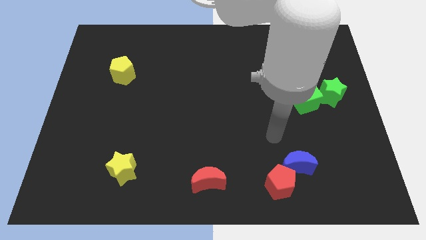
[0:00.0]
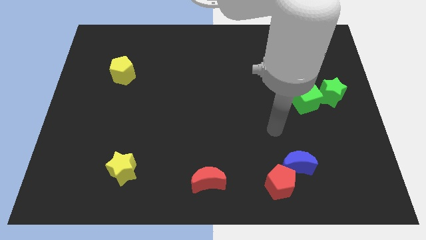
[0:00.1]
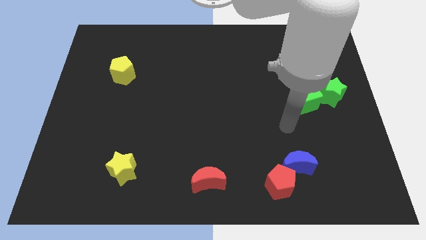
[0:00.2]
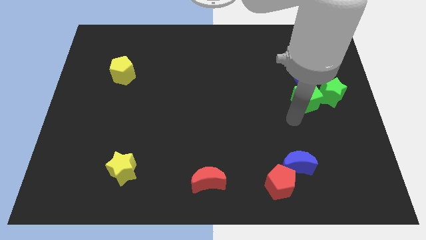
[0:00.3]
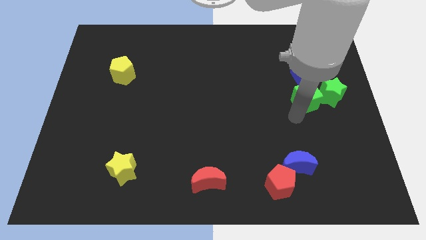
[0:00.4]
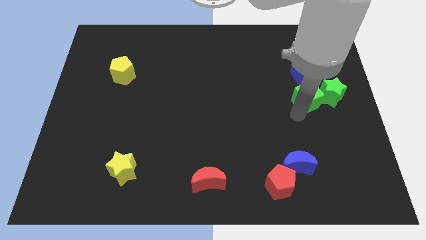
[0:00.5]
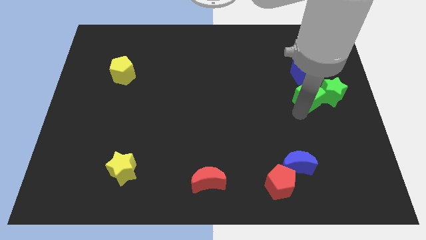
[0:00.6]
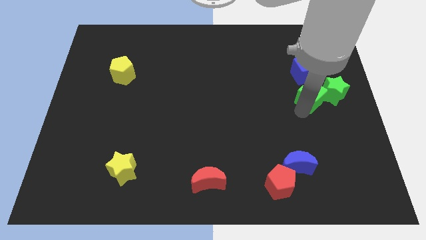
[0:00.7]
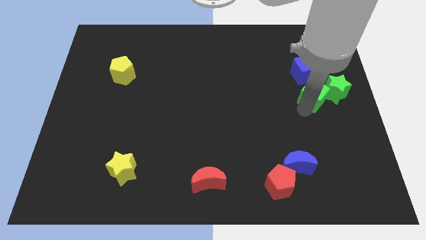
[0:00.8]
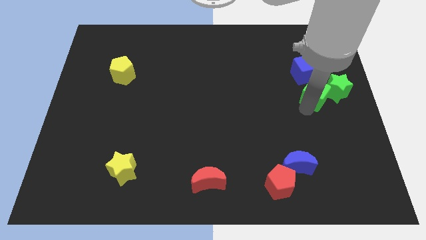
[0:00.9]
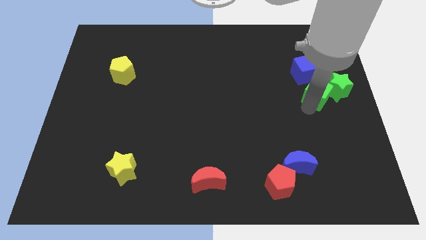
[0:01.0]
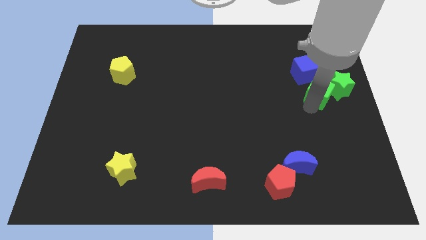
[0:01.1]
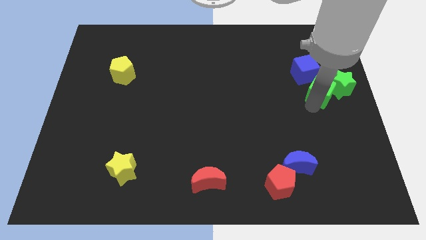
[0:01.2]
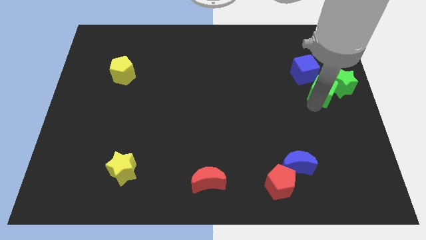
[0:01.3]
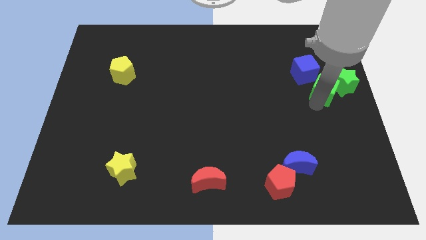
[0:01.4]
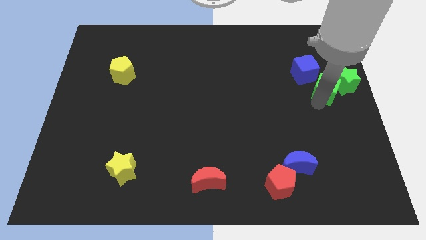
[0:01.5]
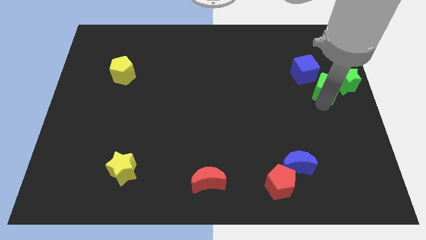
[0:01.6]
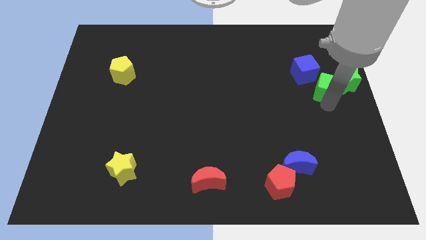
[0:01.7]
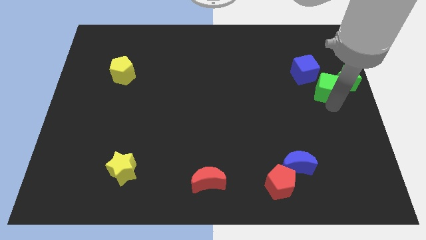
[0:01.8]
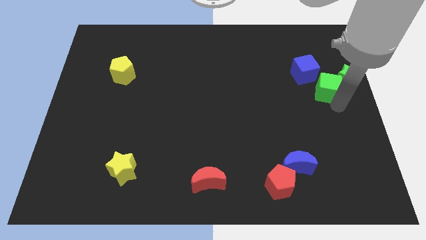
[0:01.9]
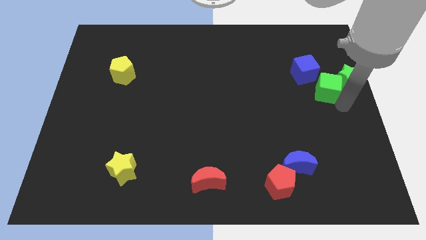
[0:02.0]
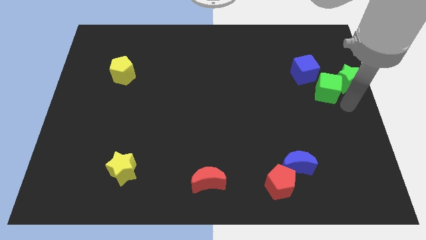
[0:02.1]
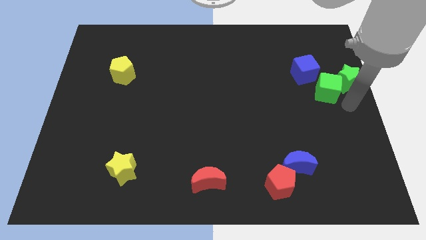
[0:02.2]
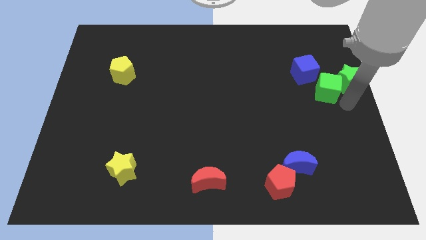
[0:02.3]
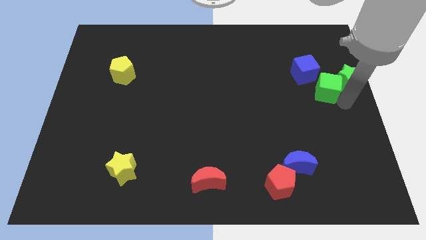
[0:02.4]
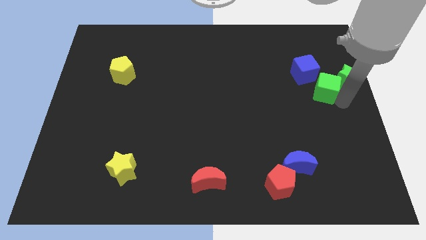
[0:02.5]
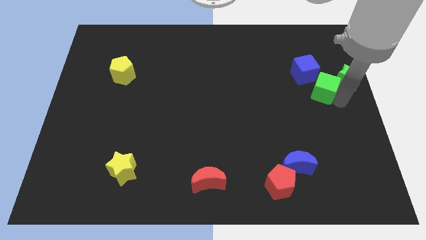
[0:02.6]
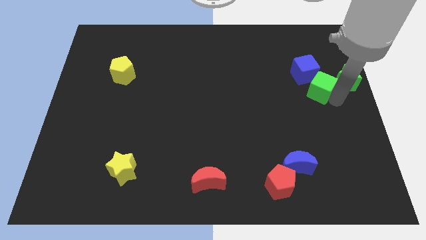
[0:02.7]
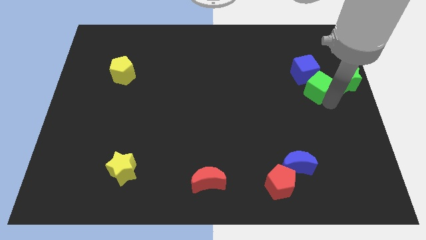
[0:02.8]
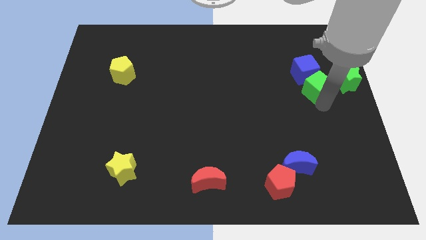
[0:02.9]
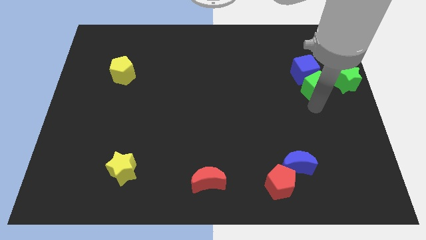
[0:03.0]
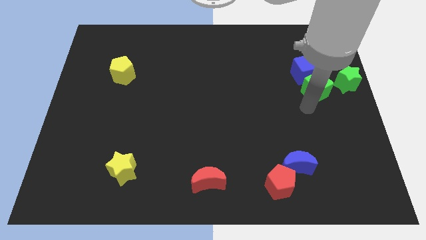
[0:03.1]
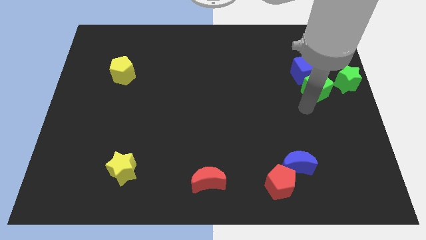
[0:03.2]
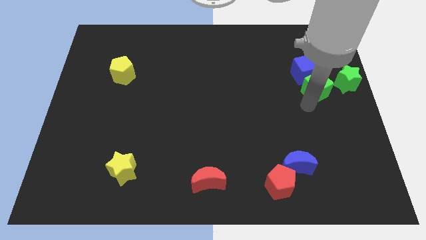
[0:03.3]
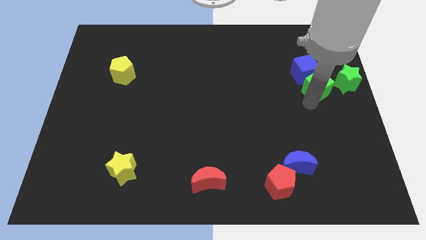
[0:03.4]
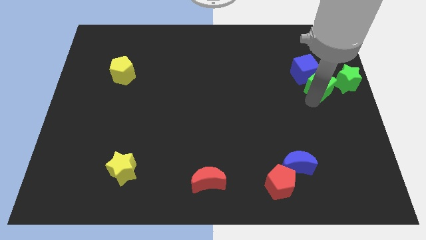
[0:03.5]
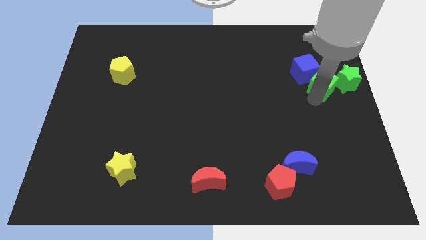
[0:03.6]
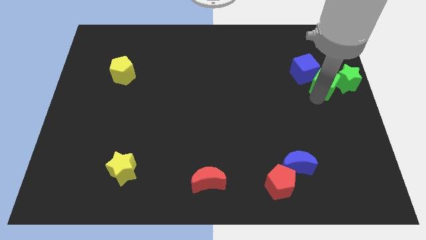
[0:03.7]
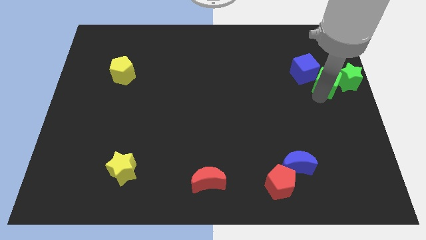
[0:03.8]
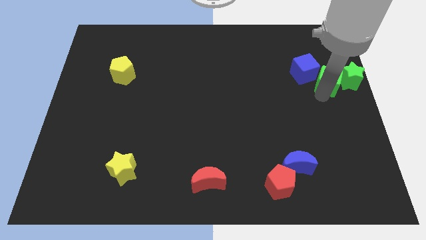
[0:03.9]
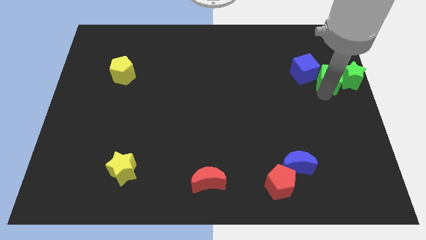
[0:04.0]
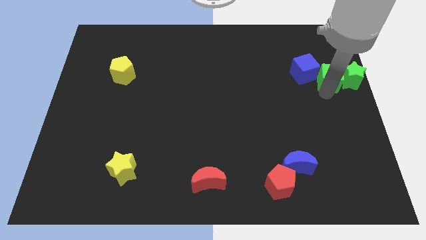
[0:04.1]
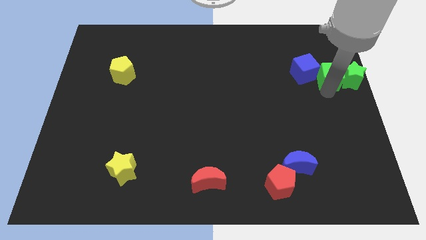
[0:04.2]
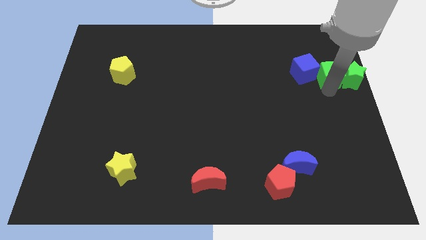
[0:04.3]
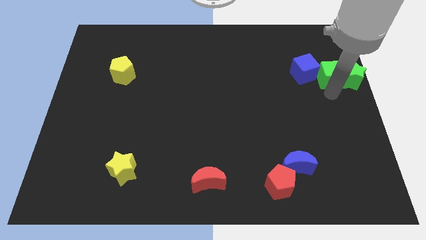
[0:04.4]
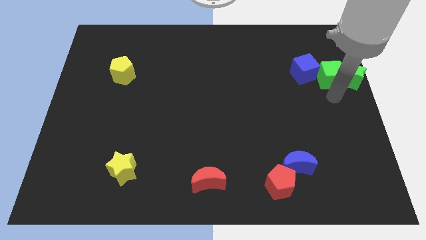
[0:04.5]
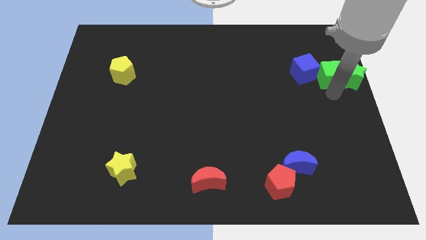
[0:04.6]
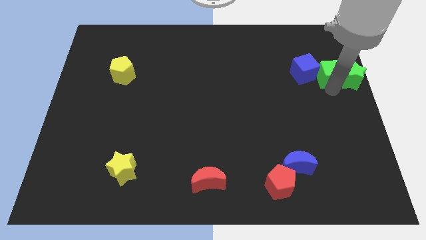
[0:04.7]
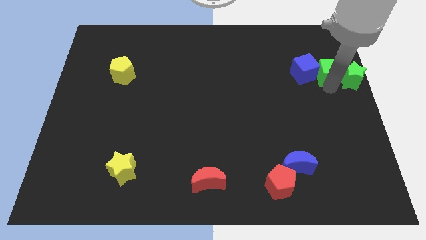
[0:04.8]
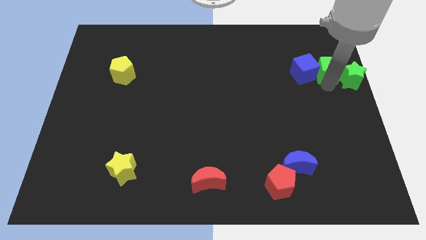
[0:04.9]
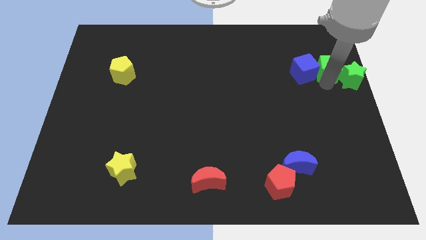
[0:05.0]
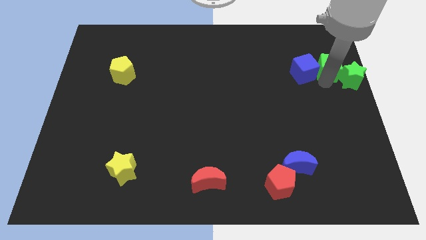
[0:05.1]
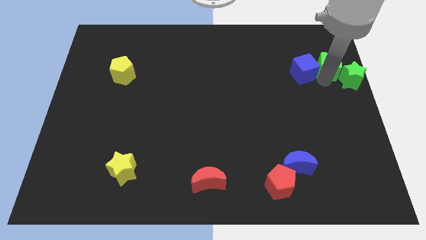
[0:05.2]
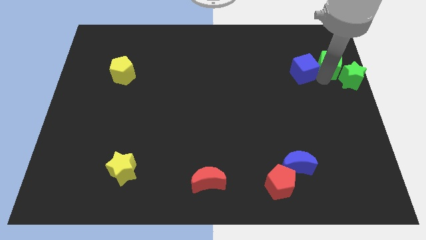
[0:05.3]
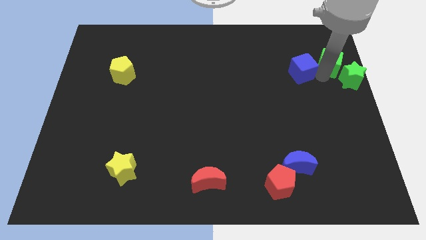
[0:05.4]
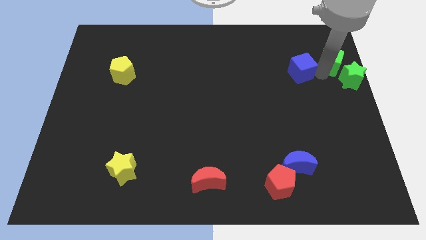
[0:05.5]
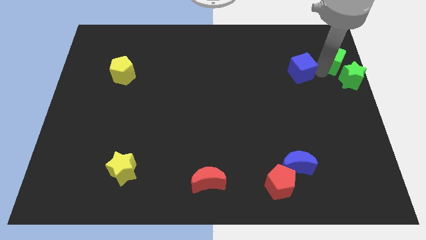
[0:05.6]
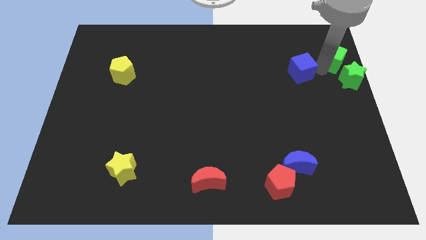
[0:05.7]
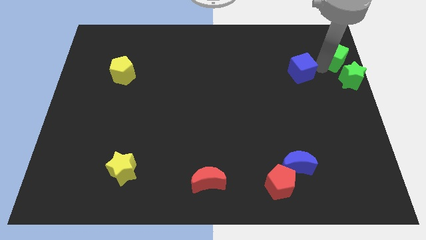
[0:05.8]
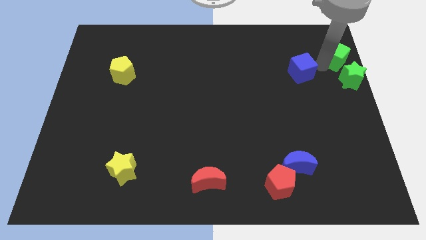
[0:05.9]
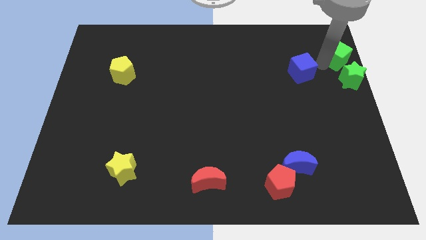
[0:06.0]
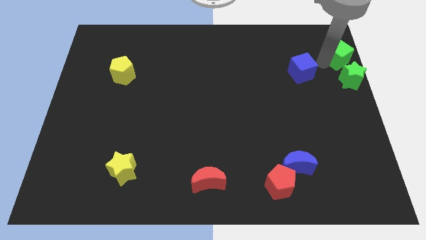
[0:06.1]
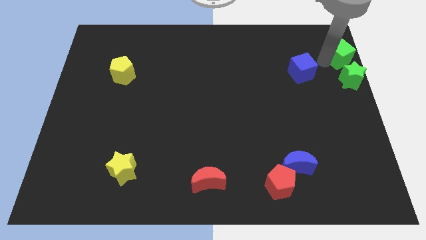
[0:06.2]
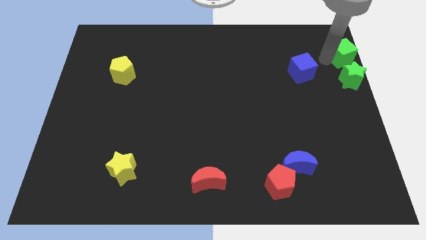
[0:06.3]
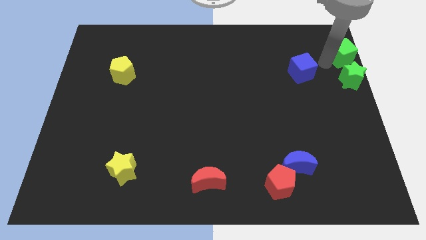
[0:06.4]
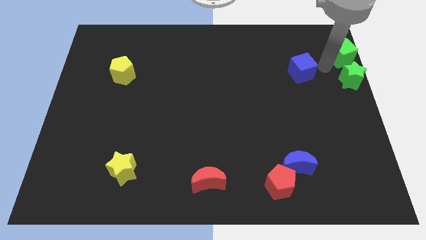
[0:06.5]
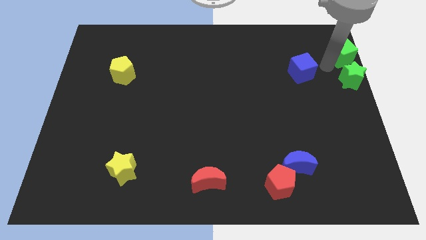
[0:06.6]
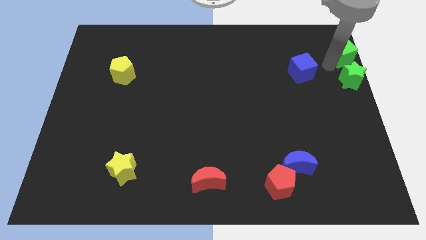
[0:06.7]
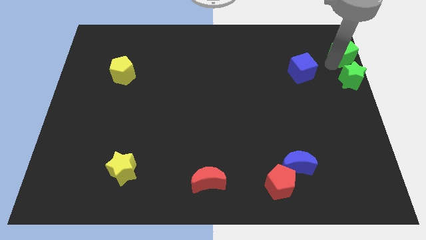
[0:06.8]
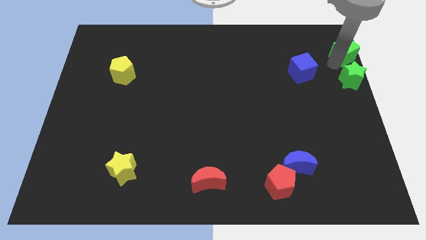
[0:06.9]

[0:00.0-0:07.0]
put the green cube to the top right of the board

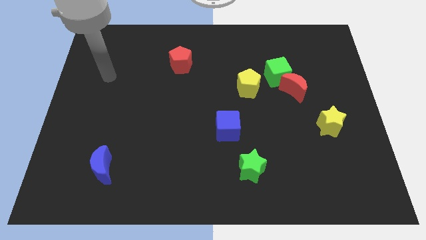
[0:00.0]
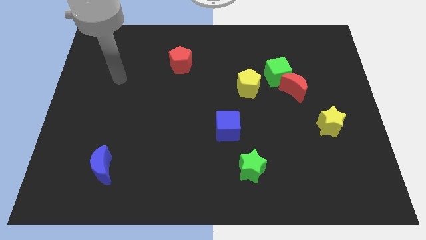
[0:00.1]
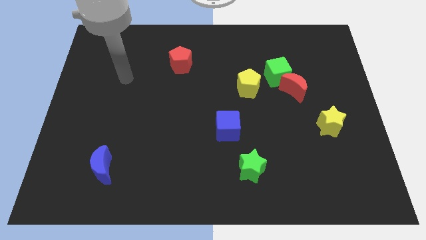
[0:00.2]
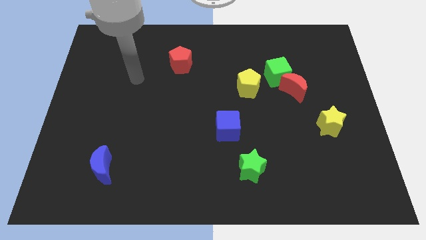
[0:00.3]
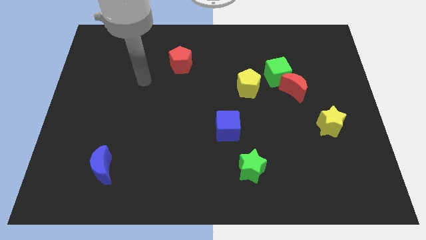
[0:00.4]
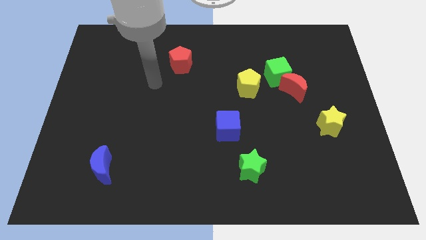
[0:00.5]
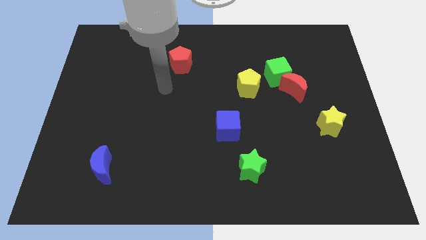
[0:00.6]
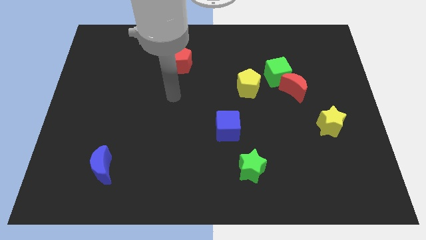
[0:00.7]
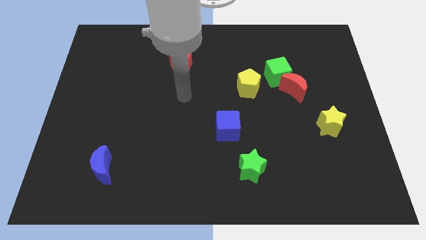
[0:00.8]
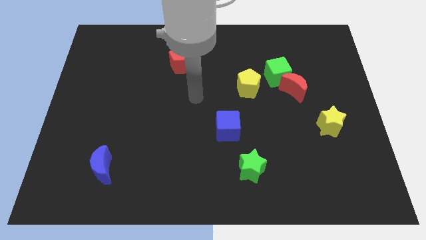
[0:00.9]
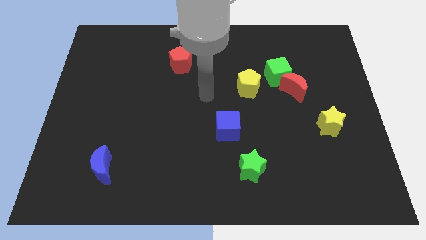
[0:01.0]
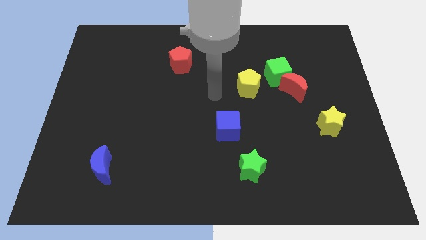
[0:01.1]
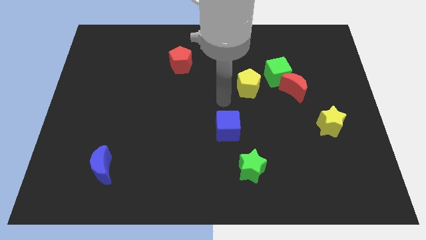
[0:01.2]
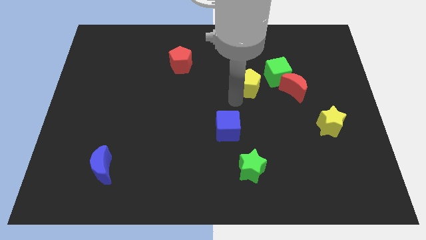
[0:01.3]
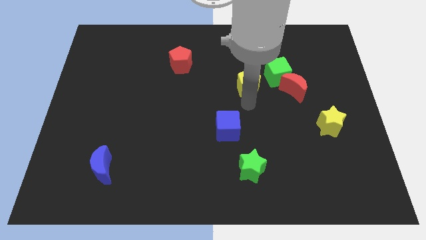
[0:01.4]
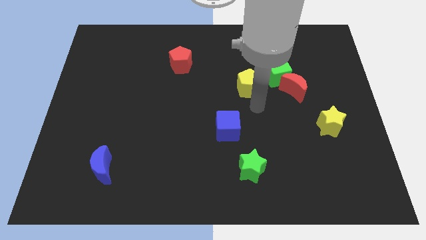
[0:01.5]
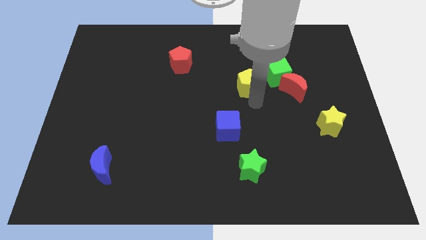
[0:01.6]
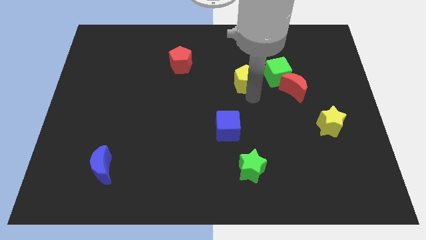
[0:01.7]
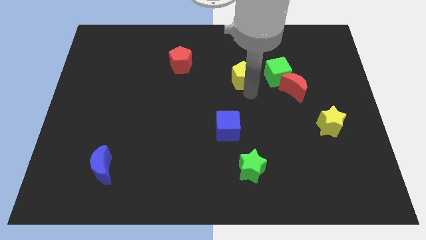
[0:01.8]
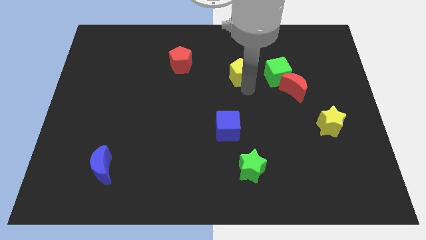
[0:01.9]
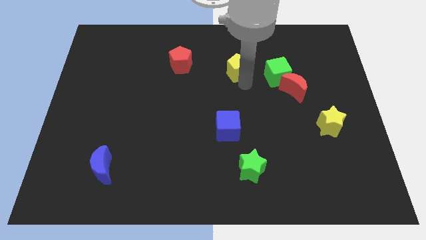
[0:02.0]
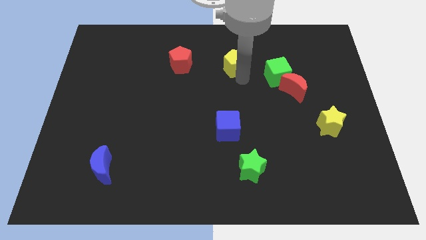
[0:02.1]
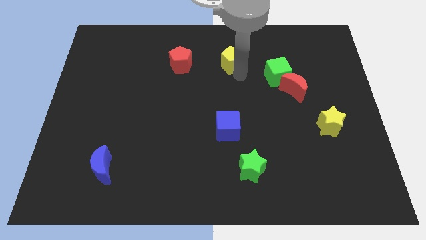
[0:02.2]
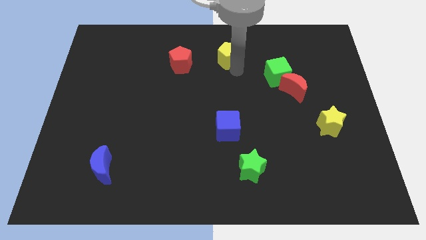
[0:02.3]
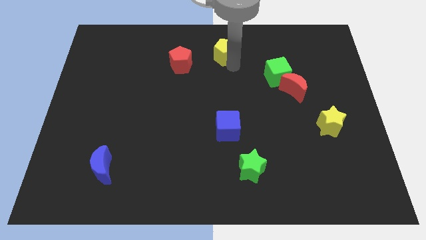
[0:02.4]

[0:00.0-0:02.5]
push the yellow pentagon to the towards your base
